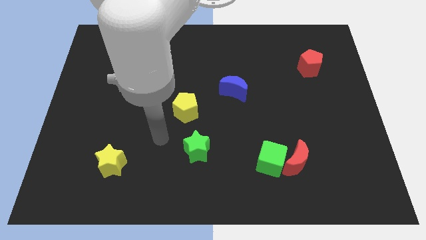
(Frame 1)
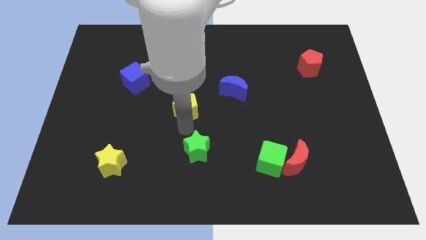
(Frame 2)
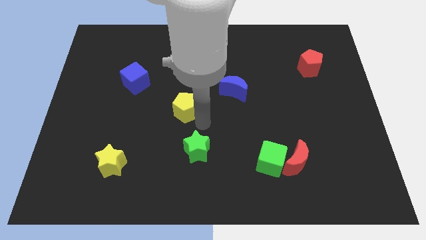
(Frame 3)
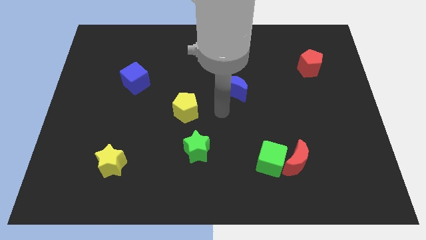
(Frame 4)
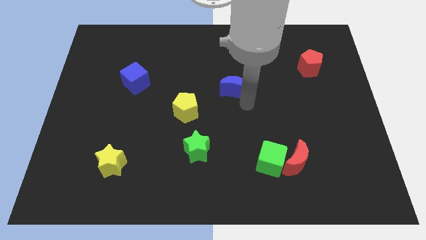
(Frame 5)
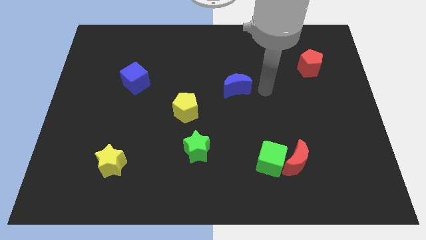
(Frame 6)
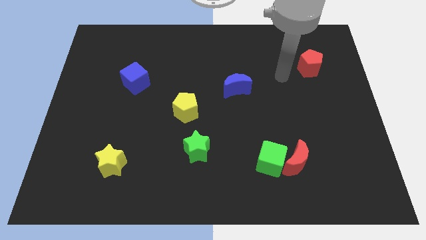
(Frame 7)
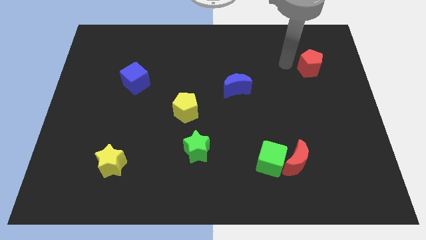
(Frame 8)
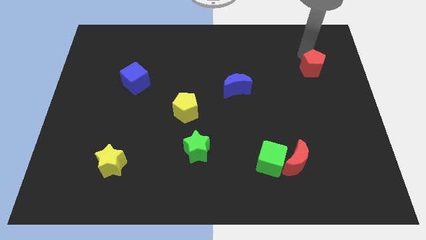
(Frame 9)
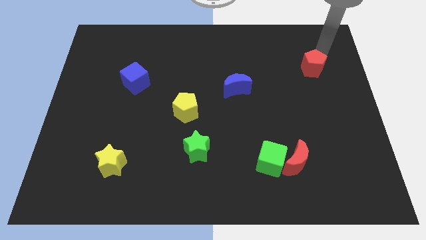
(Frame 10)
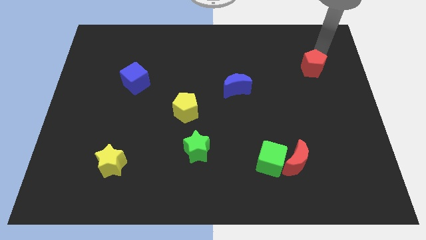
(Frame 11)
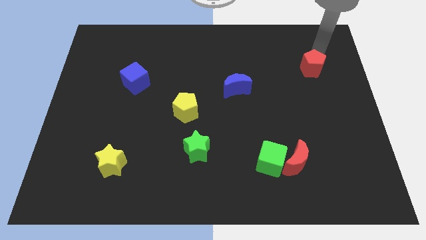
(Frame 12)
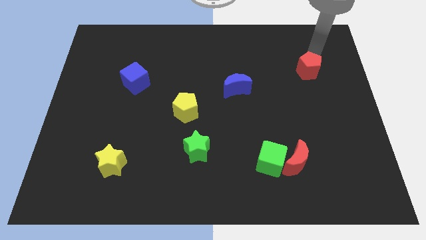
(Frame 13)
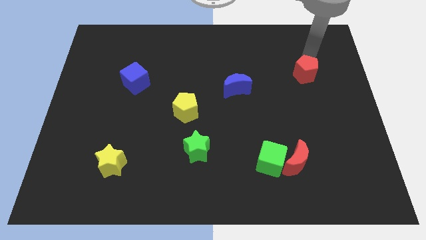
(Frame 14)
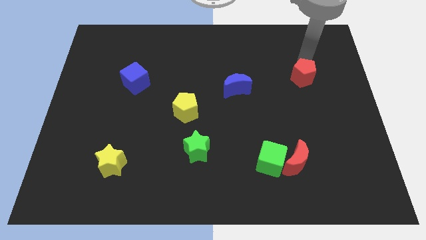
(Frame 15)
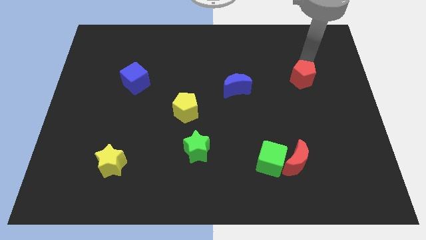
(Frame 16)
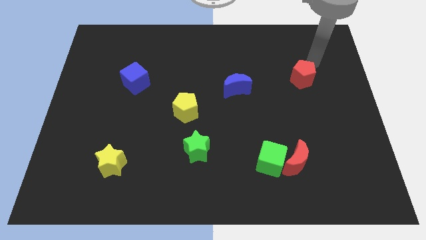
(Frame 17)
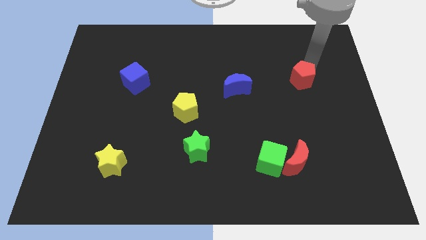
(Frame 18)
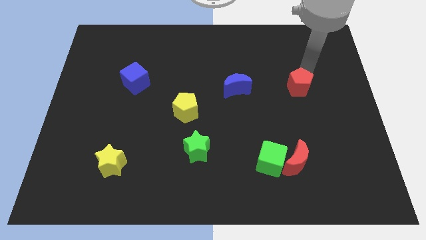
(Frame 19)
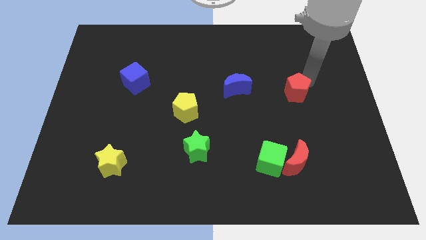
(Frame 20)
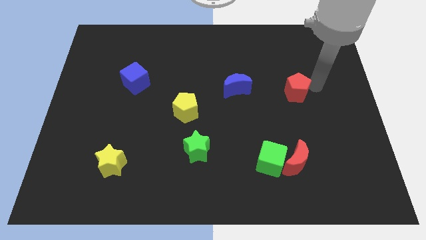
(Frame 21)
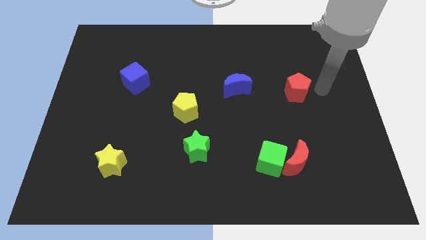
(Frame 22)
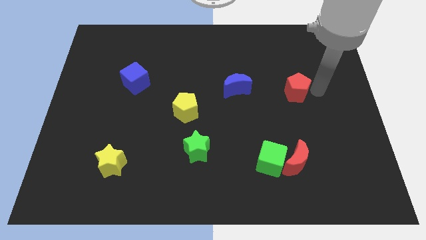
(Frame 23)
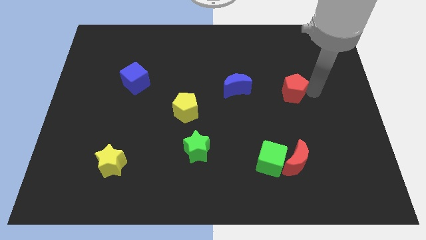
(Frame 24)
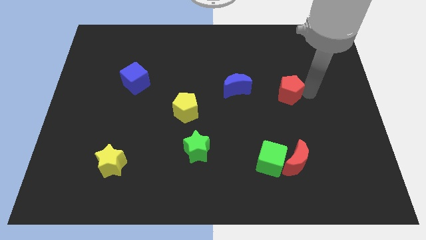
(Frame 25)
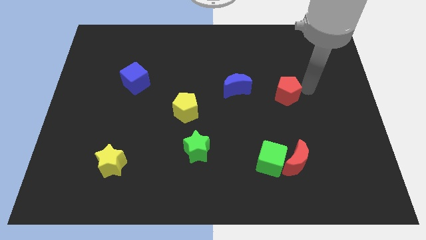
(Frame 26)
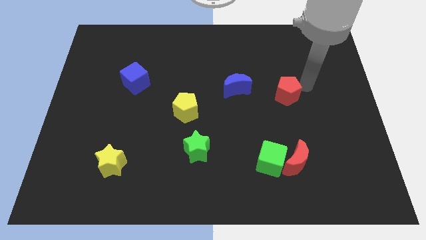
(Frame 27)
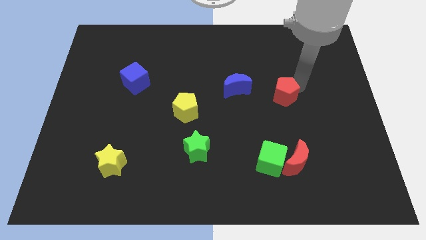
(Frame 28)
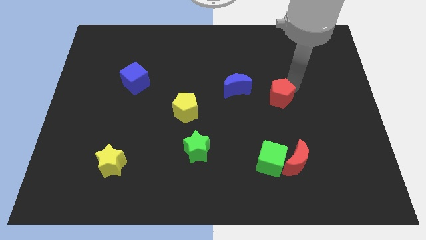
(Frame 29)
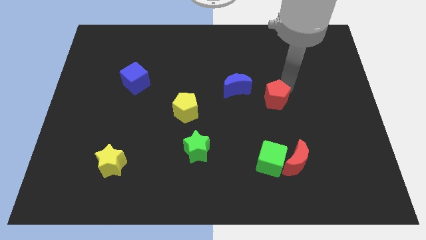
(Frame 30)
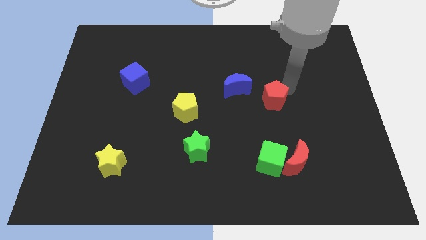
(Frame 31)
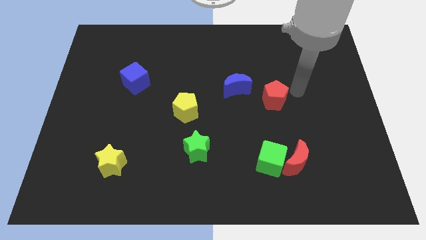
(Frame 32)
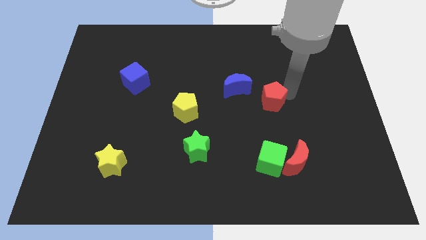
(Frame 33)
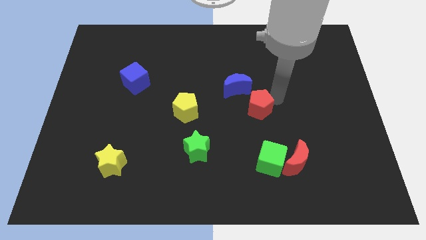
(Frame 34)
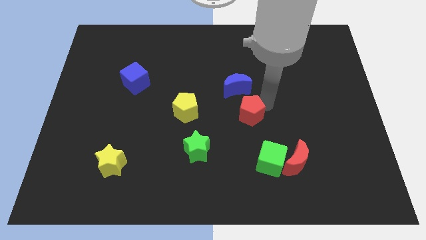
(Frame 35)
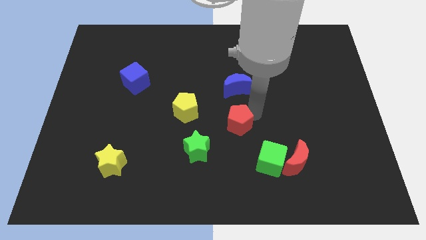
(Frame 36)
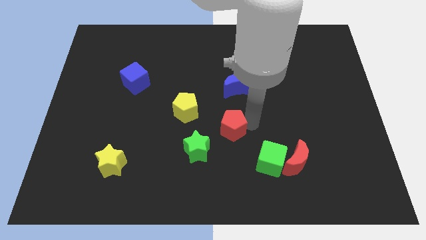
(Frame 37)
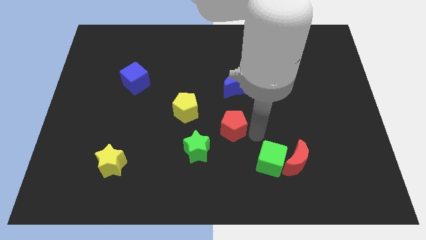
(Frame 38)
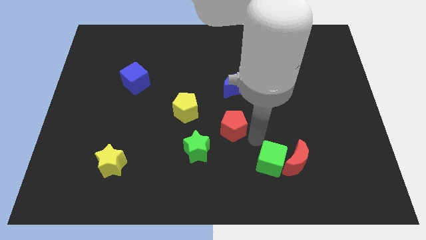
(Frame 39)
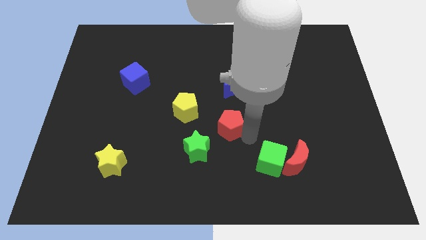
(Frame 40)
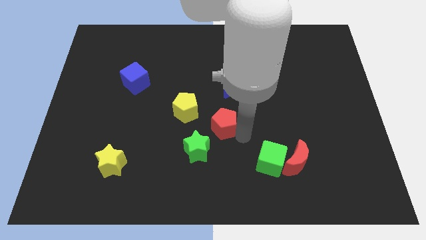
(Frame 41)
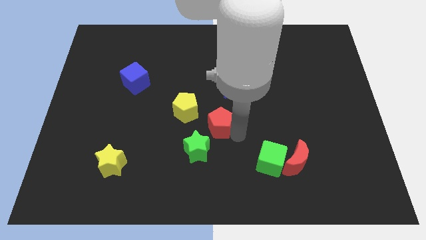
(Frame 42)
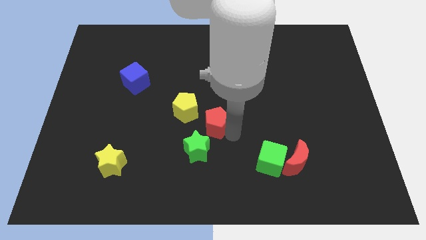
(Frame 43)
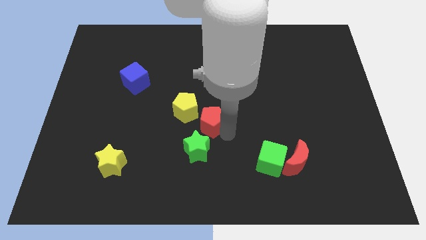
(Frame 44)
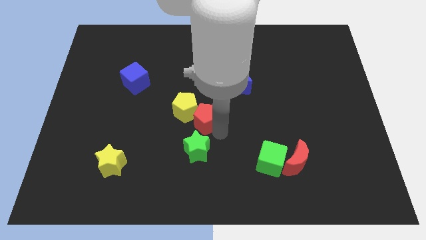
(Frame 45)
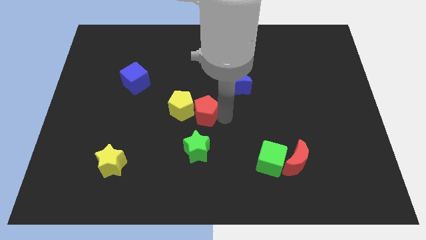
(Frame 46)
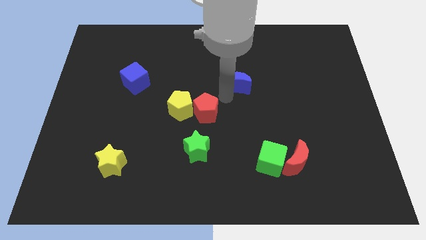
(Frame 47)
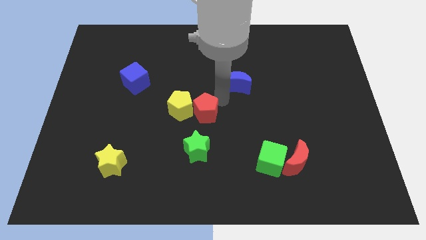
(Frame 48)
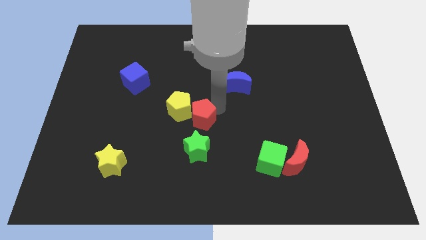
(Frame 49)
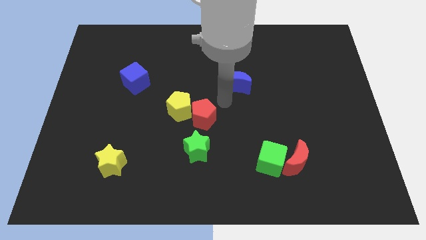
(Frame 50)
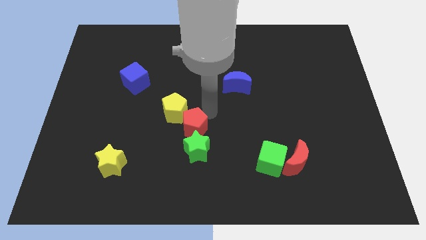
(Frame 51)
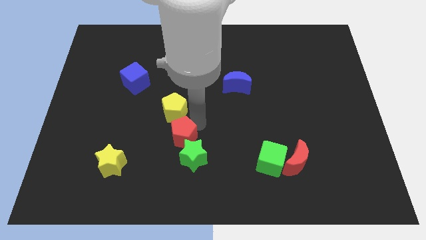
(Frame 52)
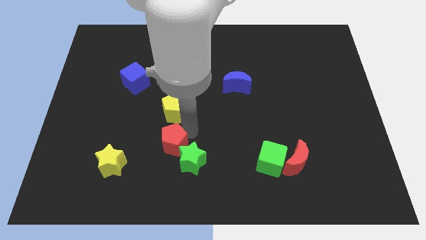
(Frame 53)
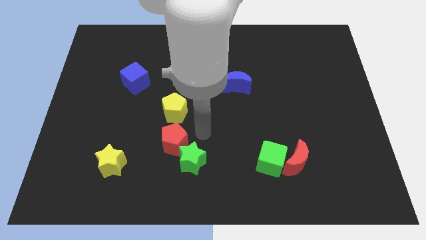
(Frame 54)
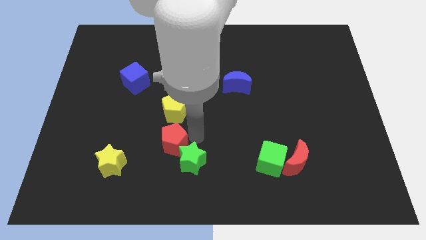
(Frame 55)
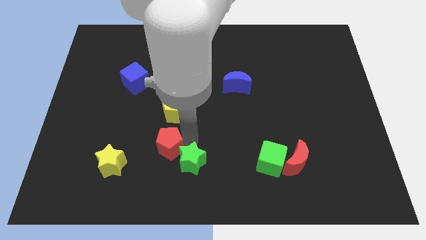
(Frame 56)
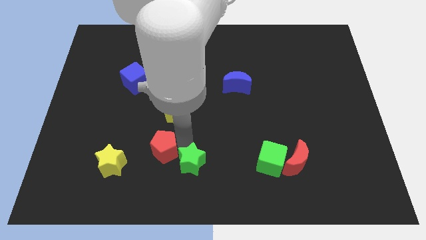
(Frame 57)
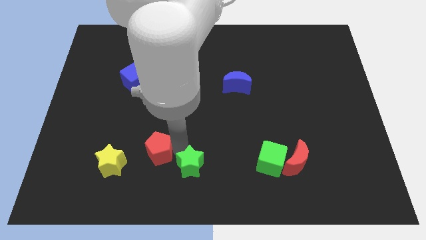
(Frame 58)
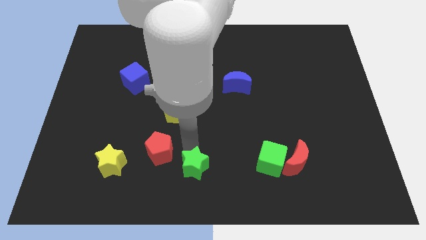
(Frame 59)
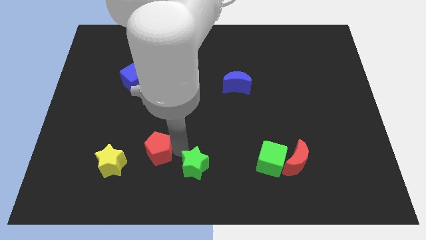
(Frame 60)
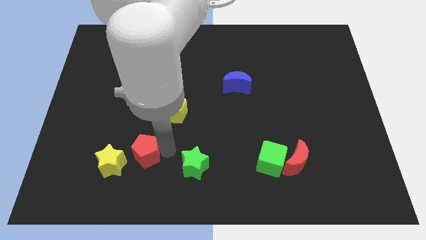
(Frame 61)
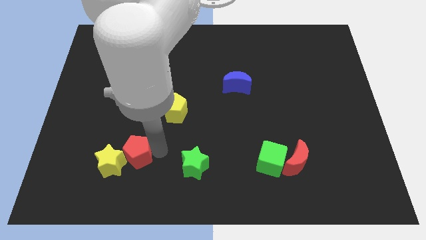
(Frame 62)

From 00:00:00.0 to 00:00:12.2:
move the red pentagon next to the yellow star
